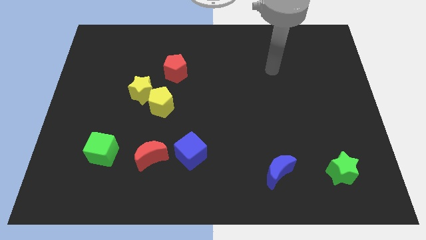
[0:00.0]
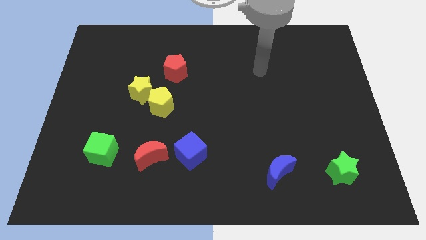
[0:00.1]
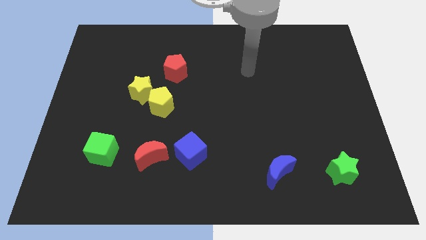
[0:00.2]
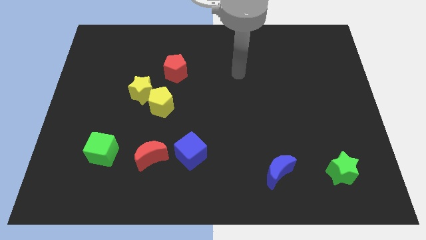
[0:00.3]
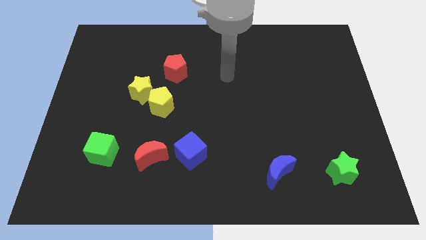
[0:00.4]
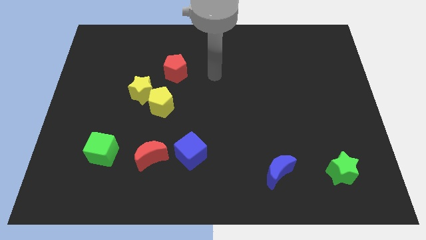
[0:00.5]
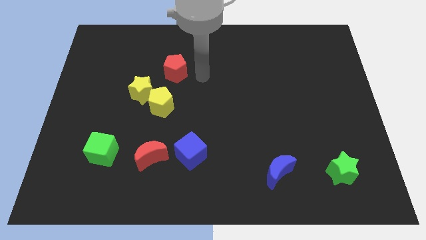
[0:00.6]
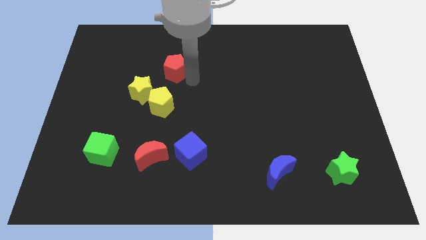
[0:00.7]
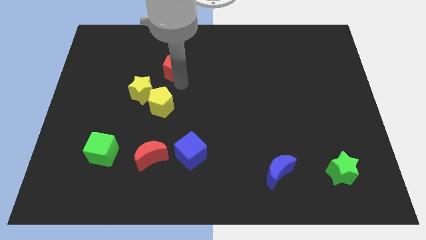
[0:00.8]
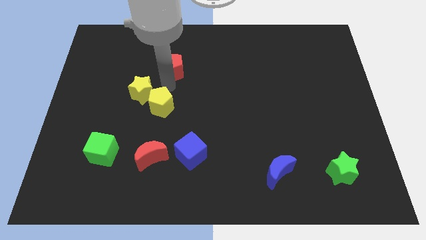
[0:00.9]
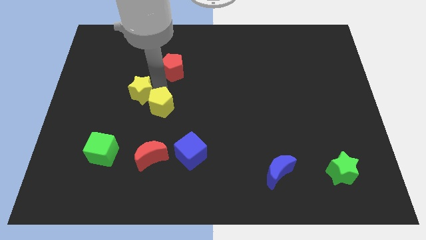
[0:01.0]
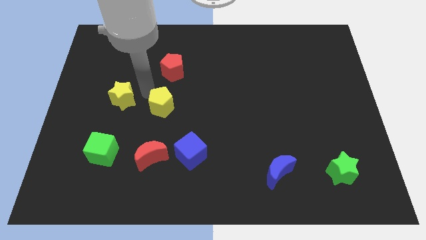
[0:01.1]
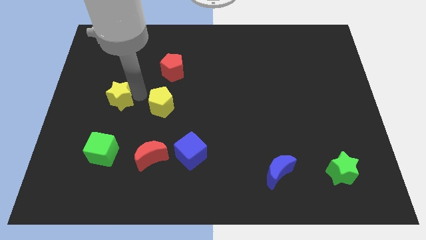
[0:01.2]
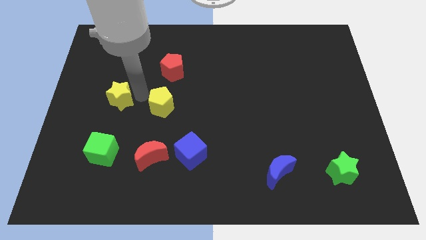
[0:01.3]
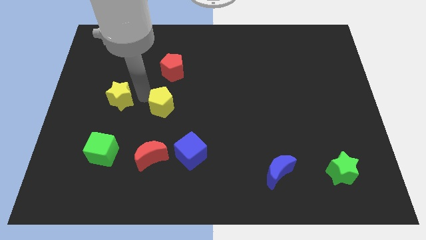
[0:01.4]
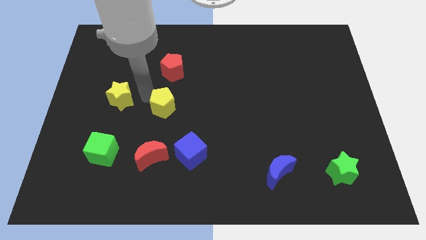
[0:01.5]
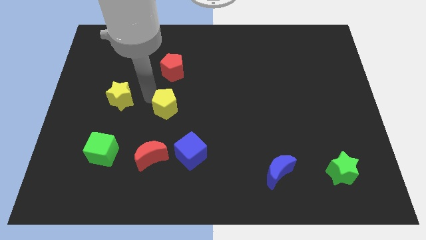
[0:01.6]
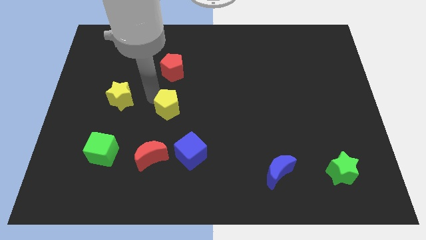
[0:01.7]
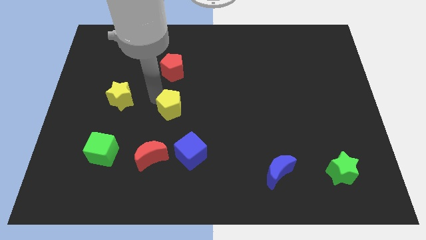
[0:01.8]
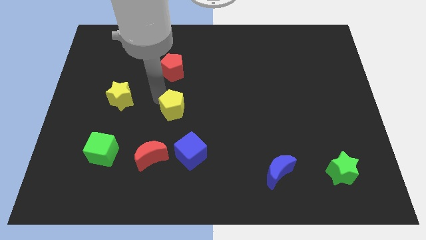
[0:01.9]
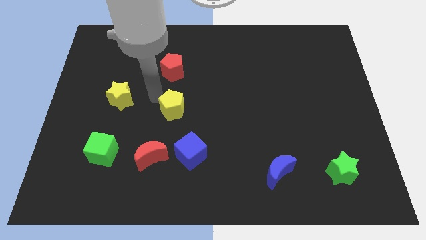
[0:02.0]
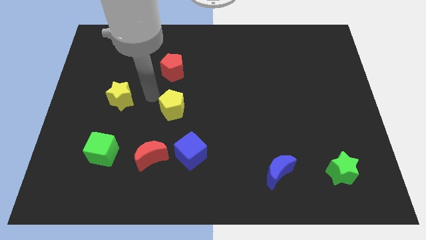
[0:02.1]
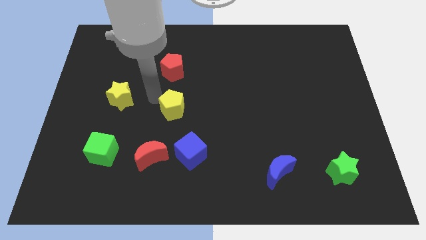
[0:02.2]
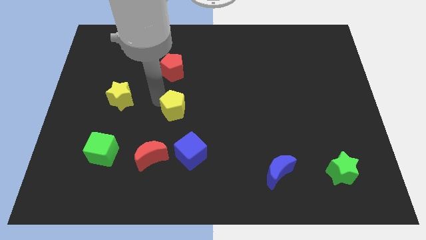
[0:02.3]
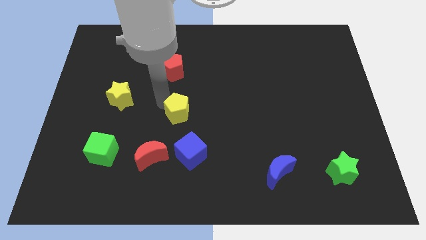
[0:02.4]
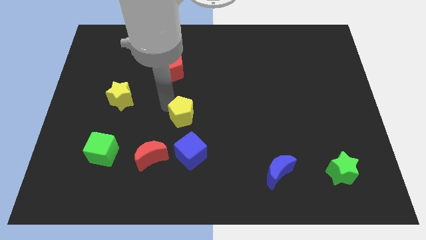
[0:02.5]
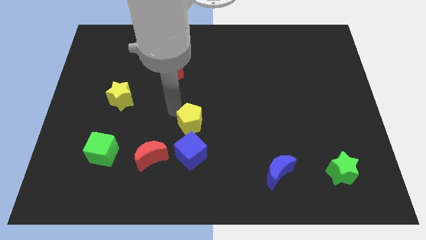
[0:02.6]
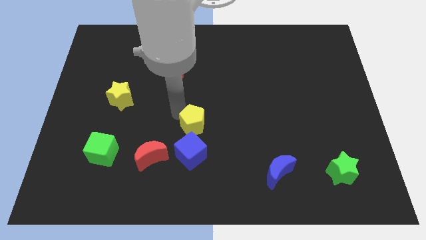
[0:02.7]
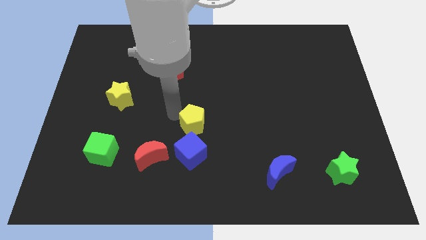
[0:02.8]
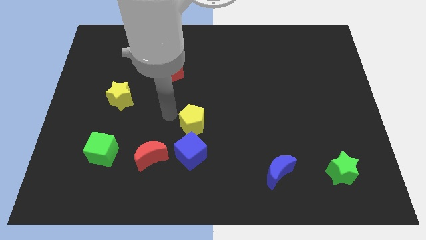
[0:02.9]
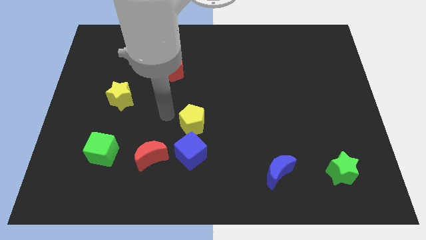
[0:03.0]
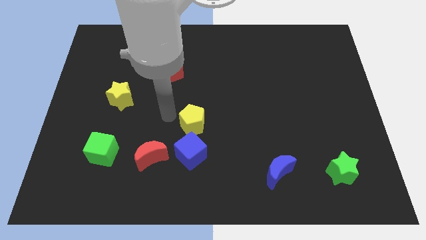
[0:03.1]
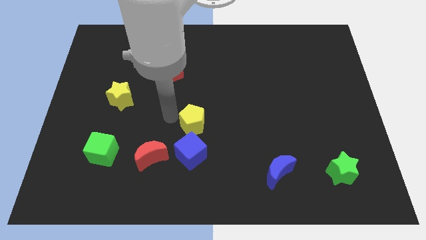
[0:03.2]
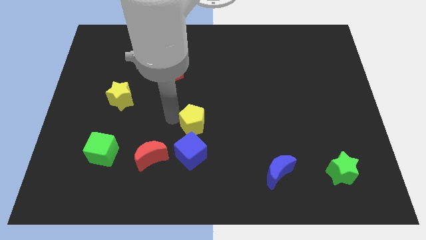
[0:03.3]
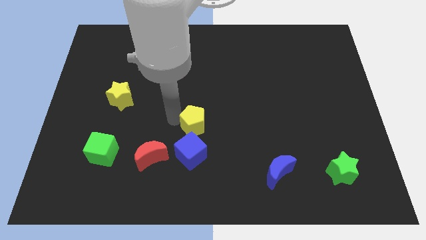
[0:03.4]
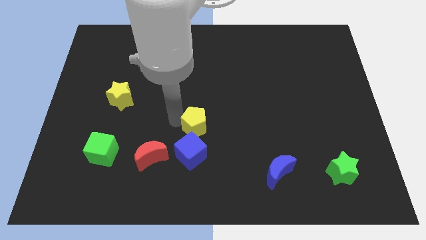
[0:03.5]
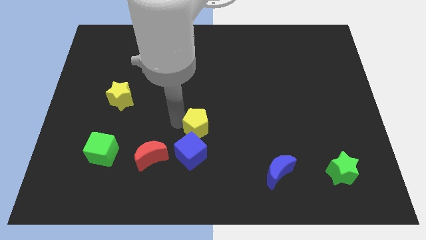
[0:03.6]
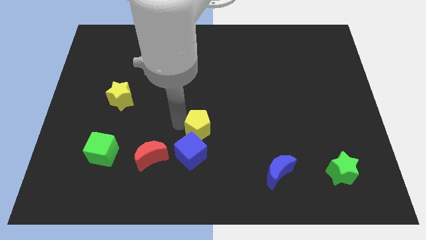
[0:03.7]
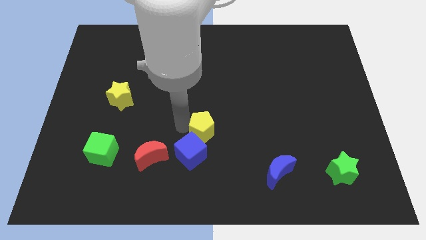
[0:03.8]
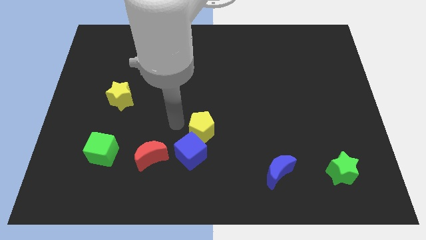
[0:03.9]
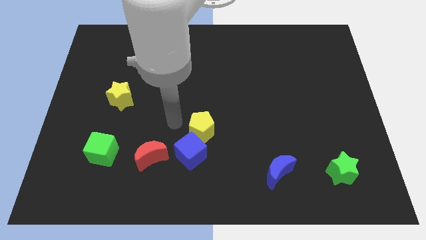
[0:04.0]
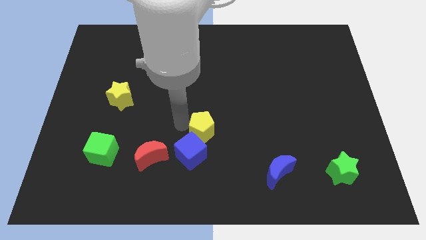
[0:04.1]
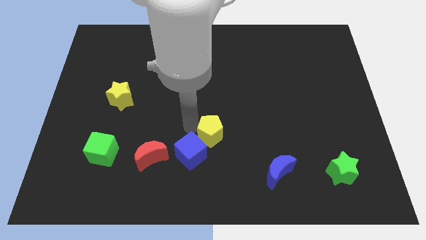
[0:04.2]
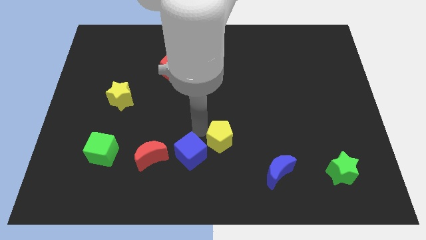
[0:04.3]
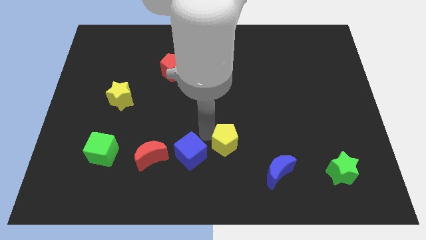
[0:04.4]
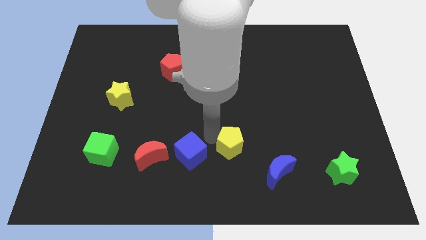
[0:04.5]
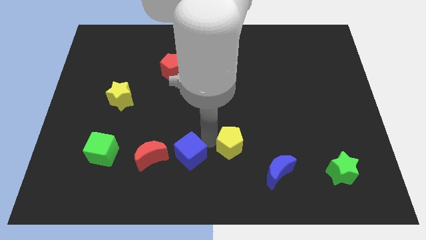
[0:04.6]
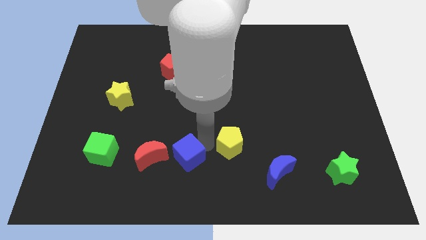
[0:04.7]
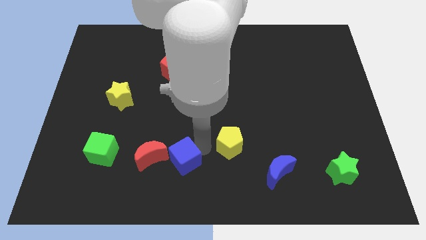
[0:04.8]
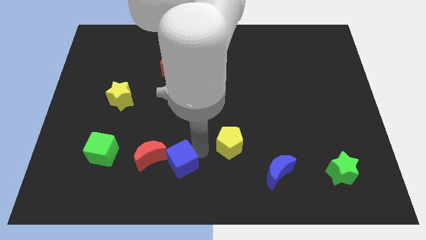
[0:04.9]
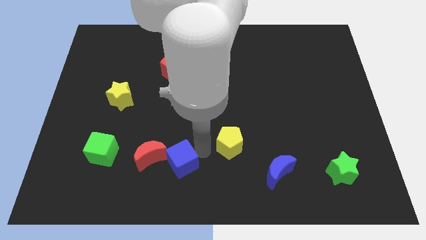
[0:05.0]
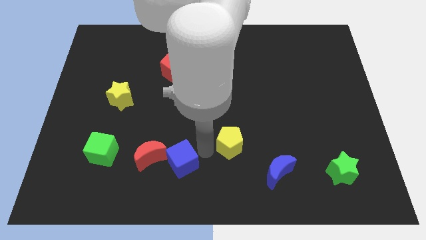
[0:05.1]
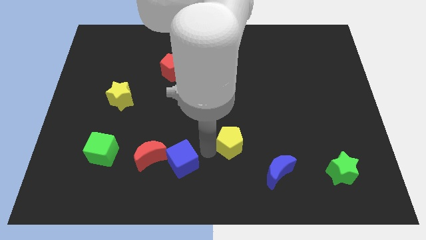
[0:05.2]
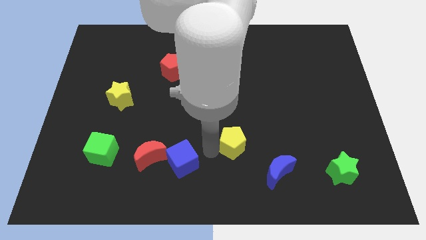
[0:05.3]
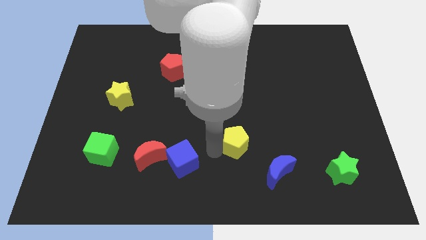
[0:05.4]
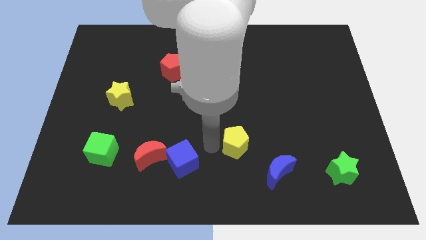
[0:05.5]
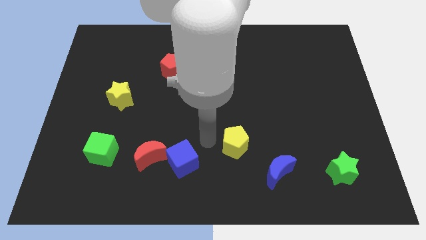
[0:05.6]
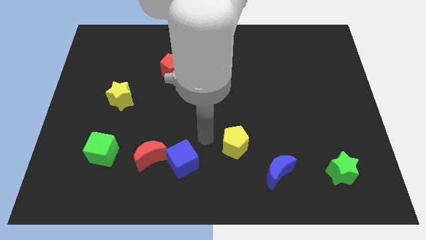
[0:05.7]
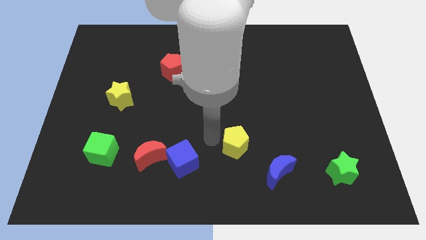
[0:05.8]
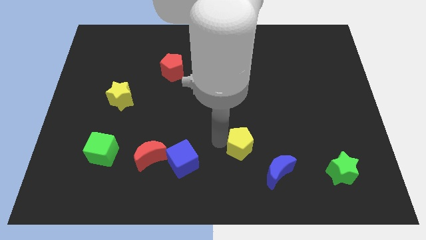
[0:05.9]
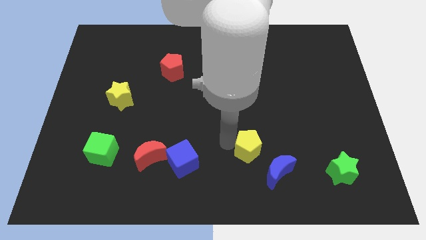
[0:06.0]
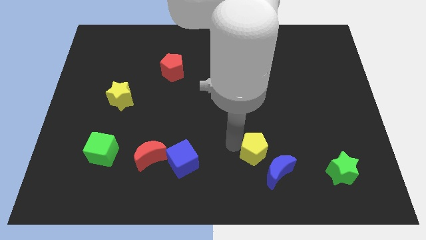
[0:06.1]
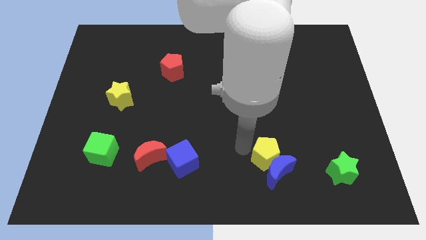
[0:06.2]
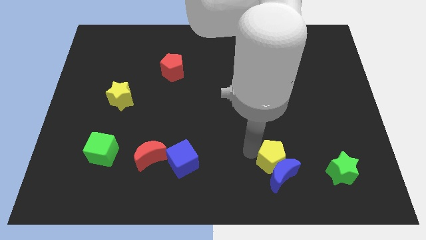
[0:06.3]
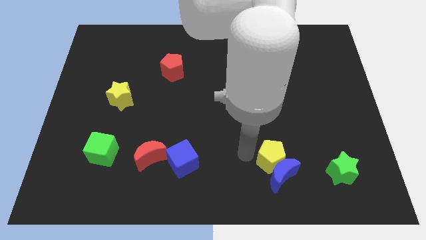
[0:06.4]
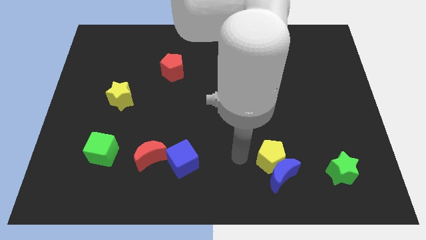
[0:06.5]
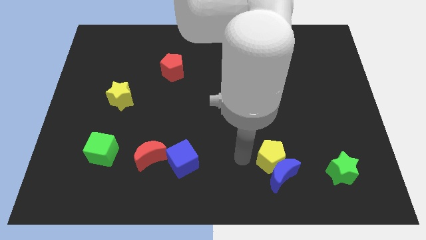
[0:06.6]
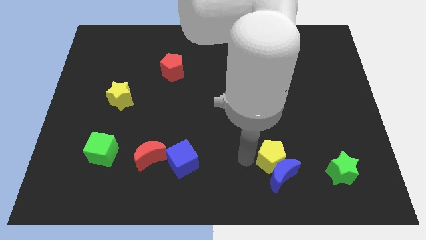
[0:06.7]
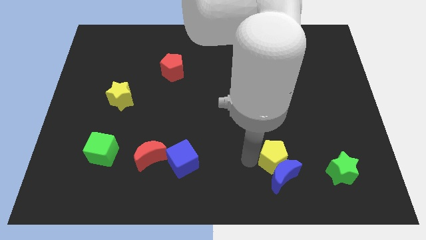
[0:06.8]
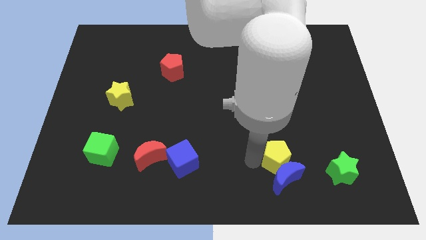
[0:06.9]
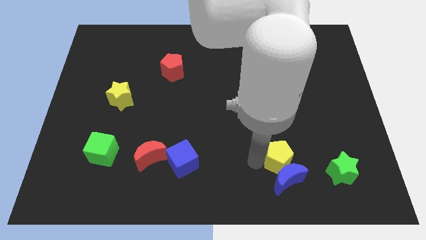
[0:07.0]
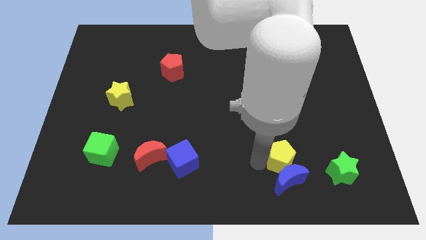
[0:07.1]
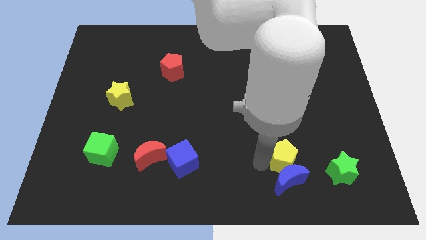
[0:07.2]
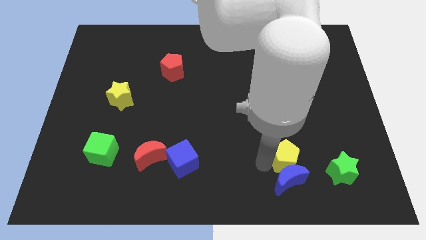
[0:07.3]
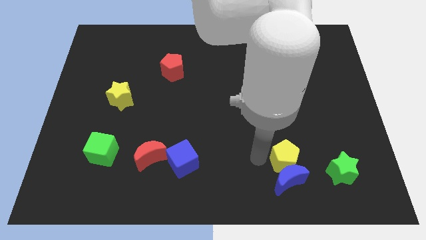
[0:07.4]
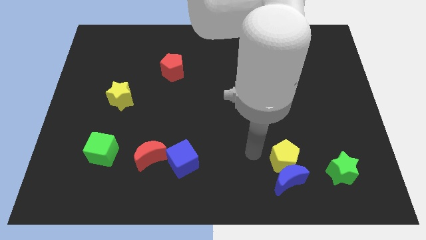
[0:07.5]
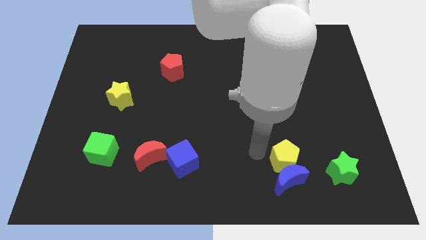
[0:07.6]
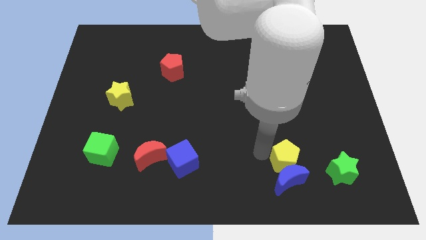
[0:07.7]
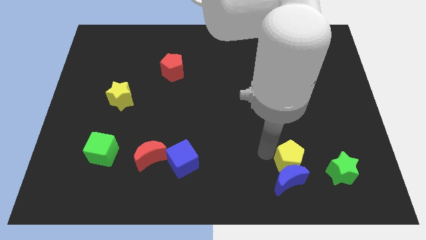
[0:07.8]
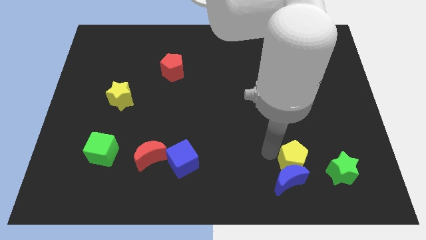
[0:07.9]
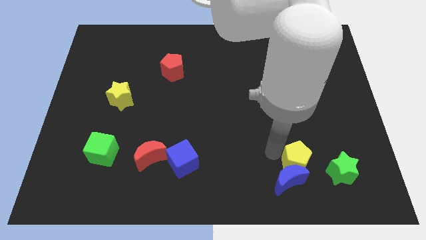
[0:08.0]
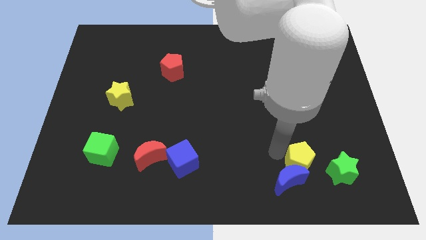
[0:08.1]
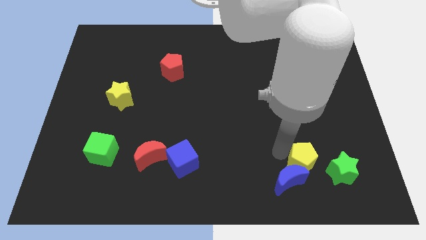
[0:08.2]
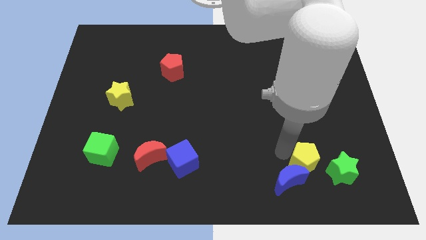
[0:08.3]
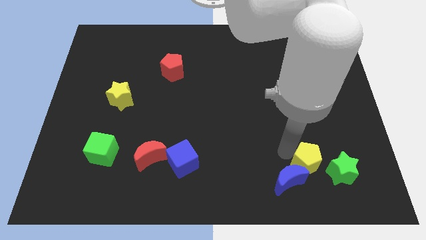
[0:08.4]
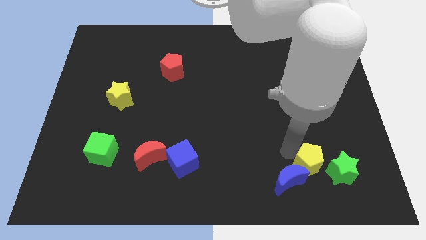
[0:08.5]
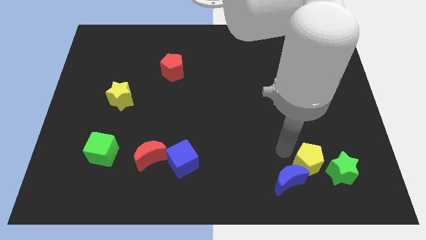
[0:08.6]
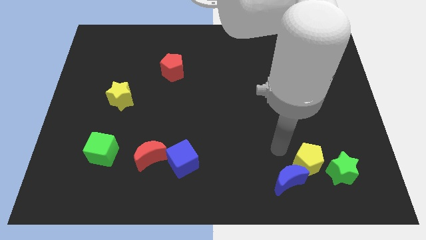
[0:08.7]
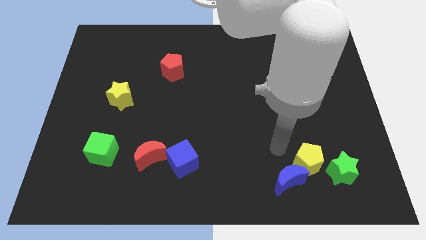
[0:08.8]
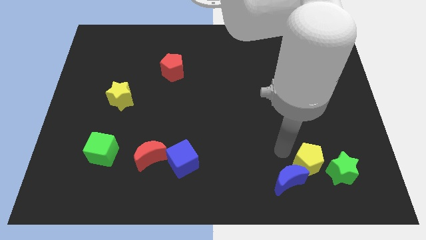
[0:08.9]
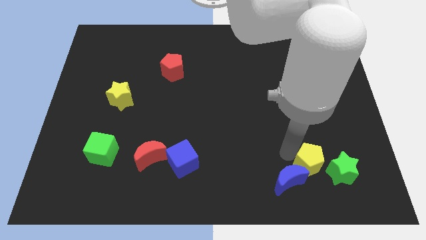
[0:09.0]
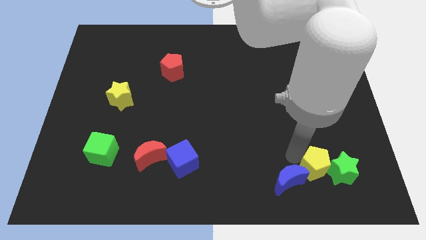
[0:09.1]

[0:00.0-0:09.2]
move the yellow pentagon to the green star
